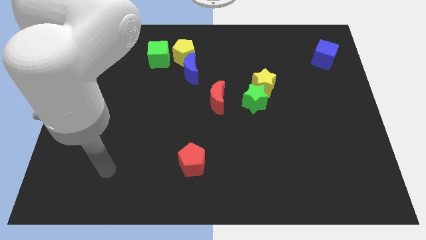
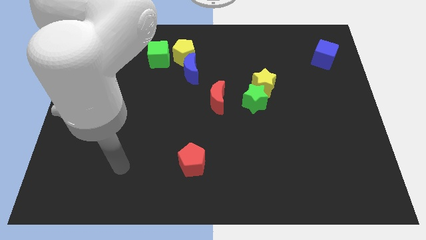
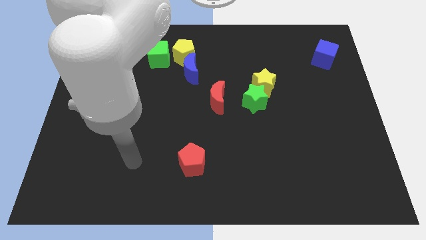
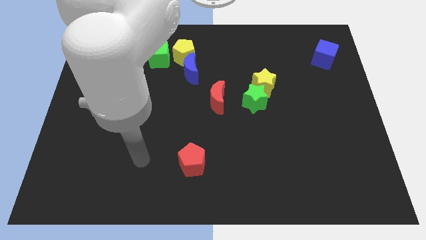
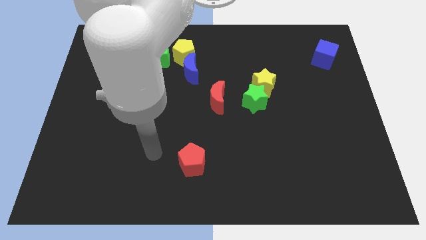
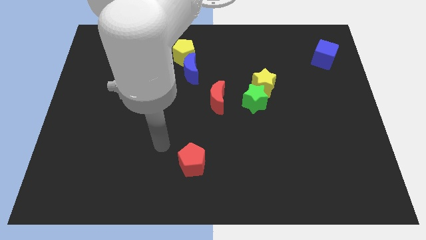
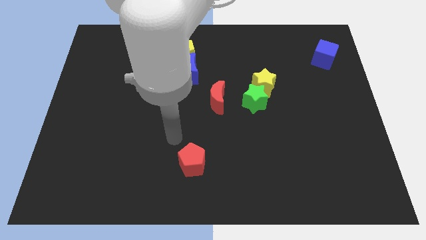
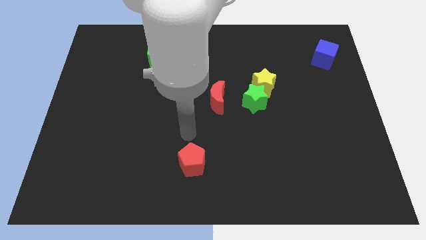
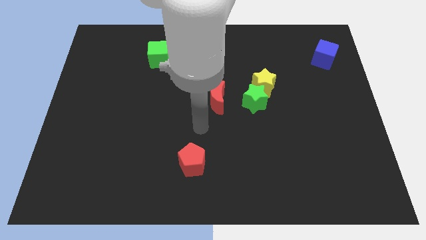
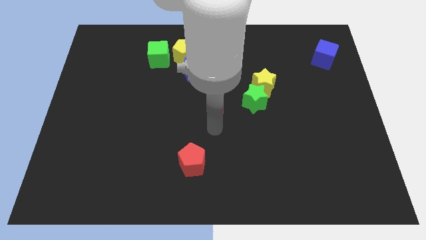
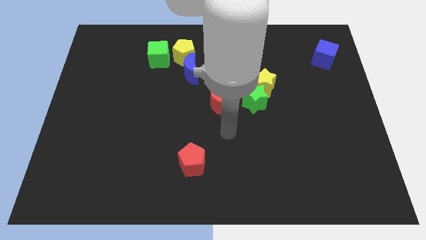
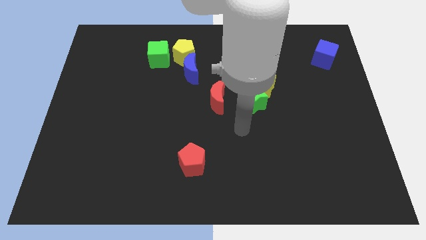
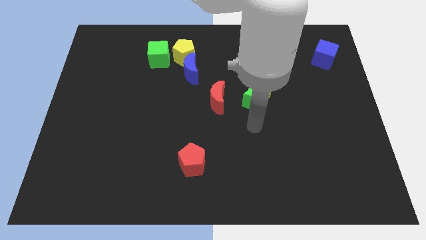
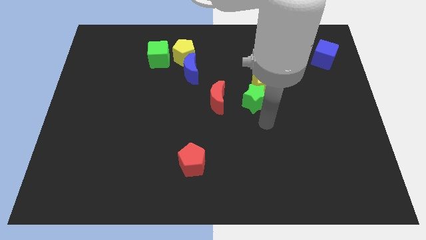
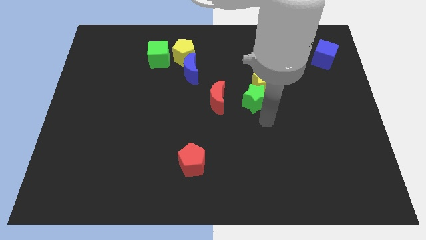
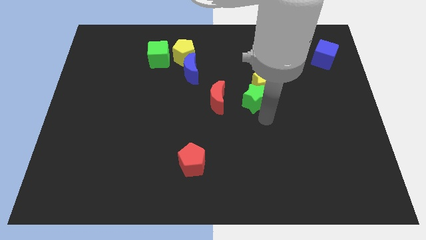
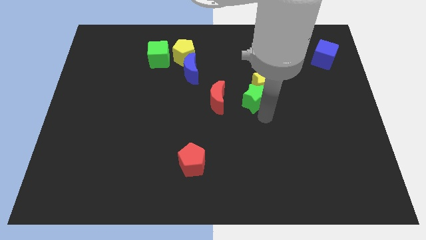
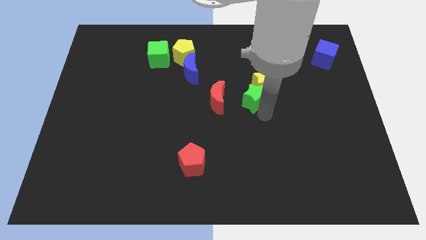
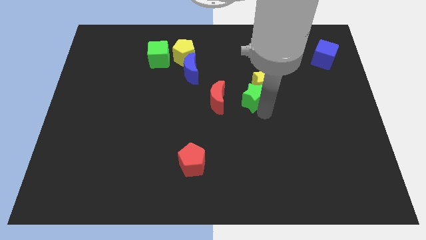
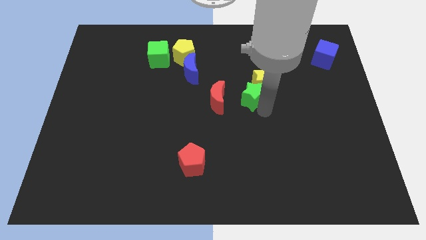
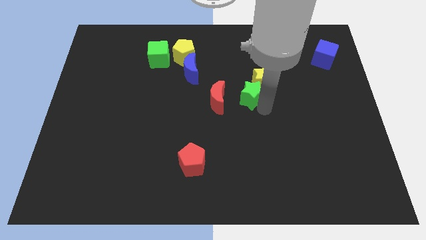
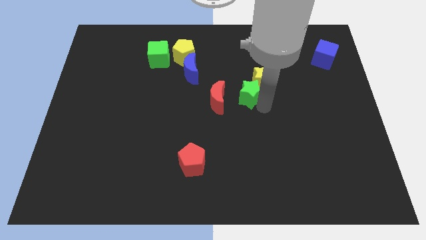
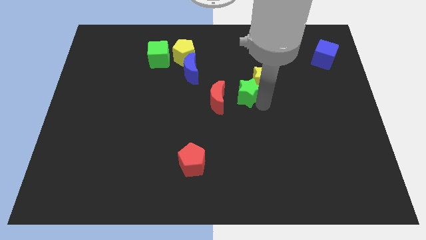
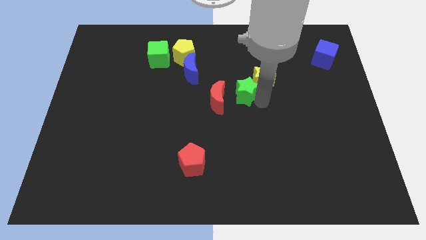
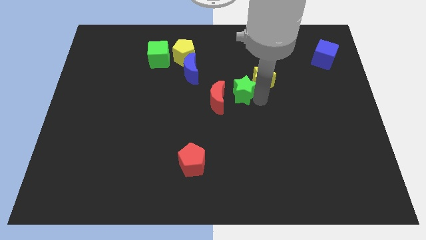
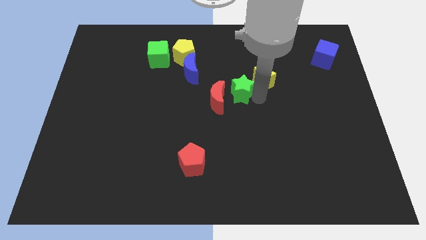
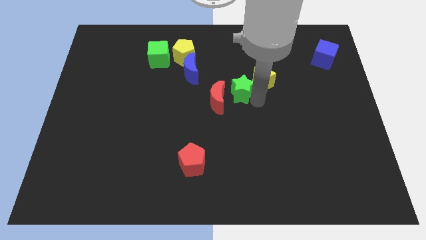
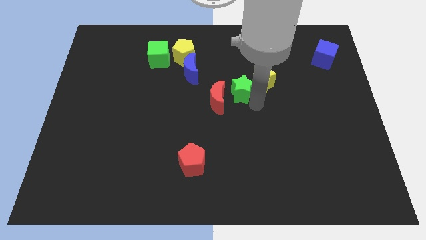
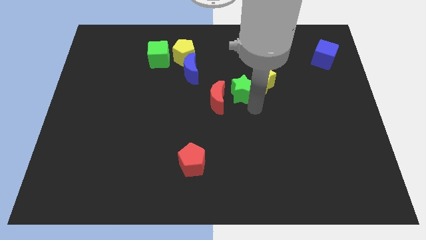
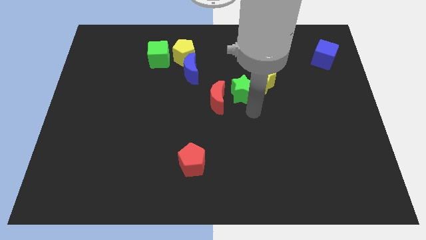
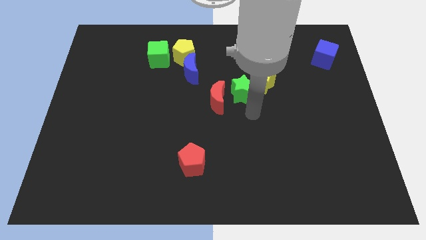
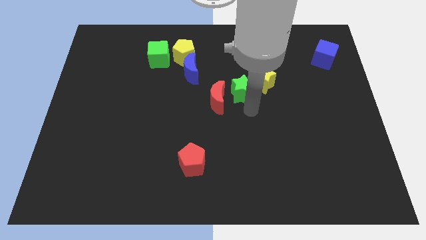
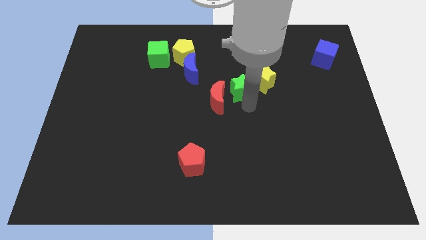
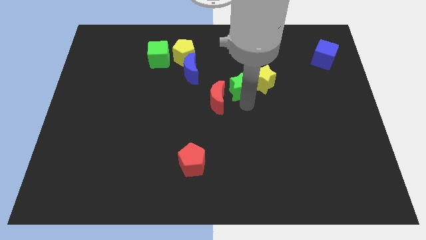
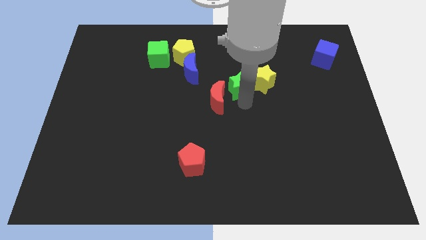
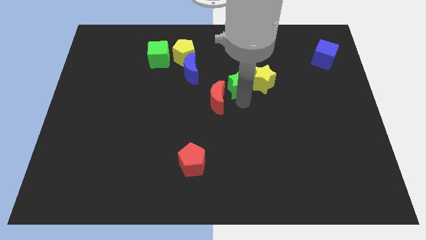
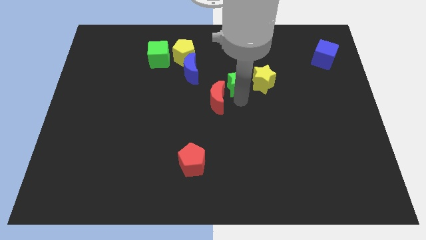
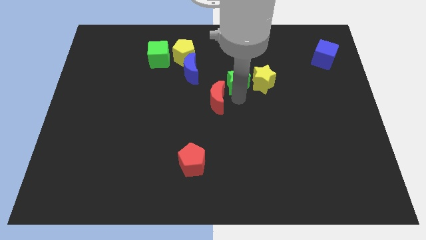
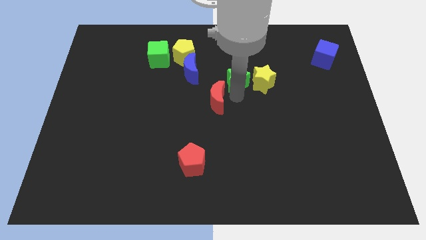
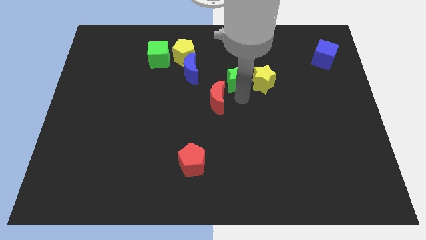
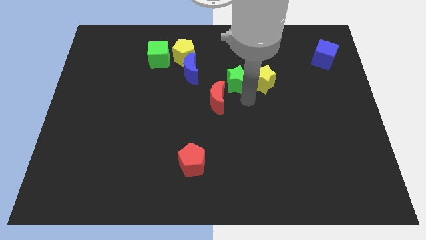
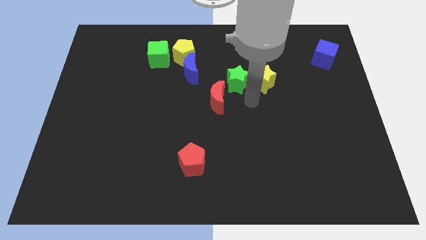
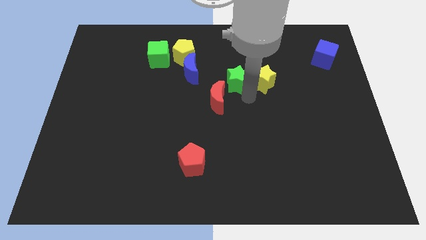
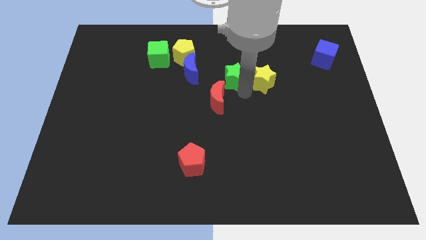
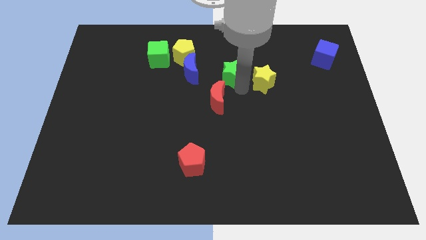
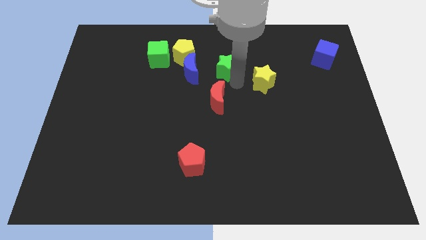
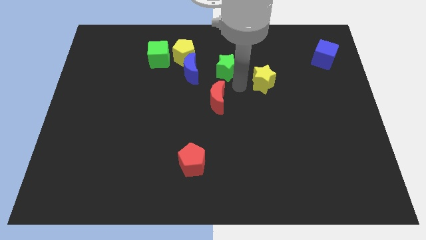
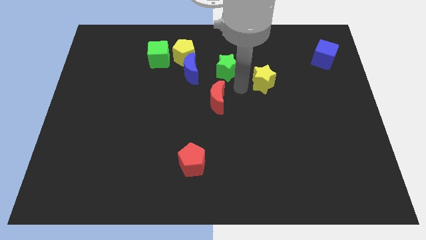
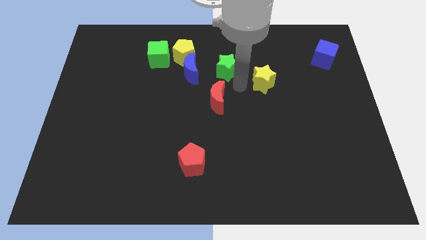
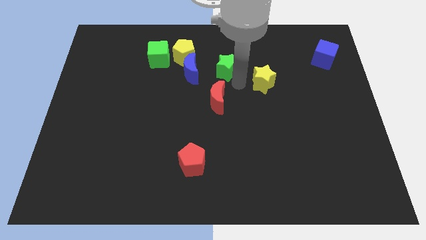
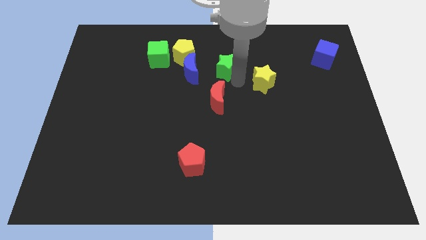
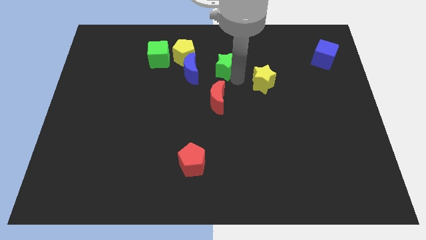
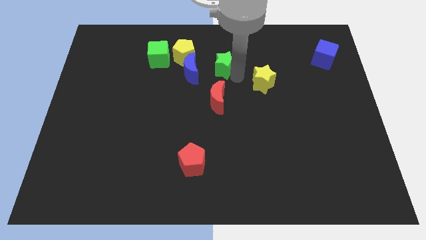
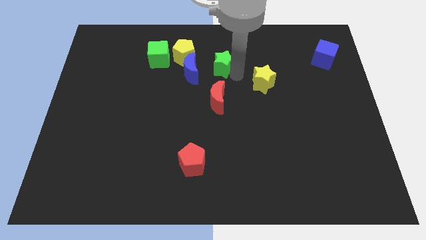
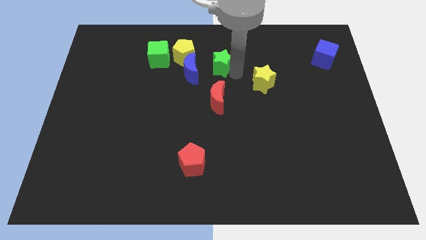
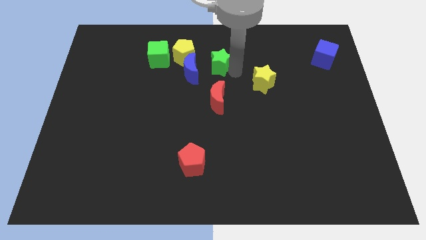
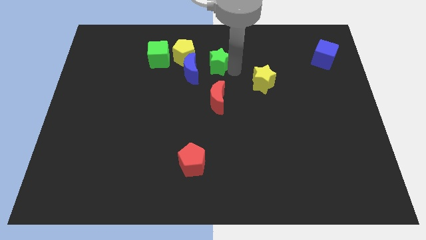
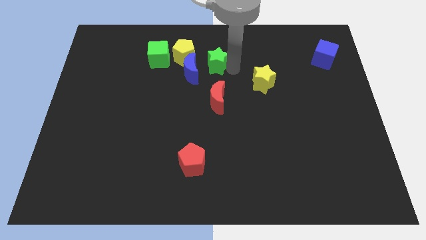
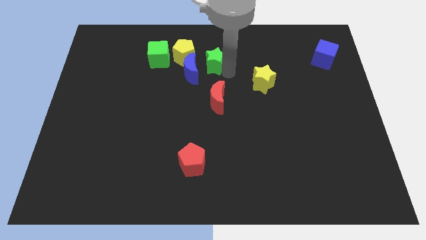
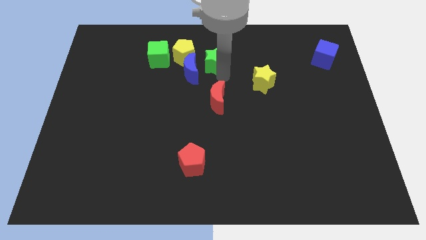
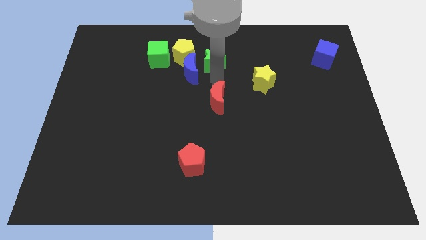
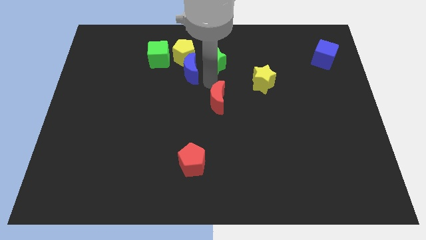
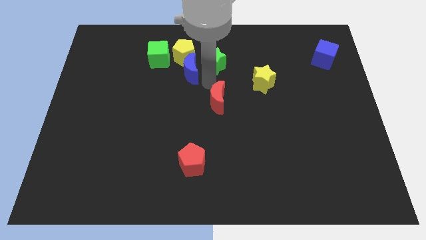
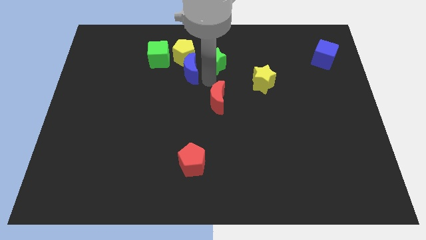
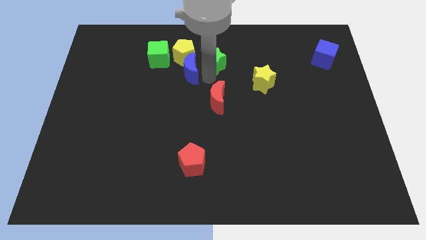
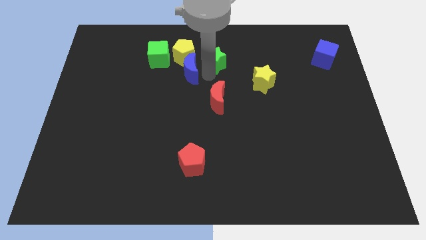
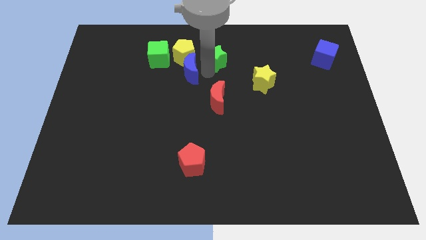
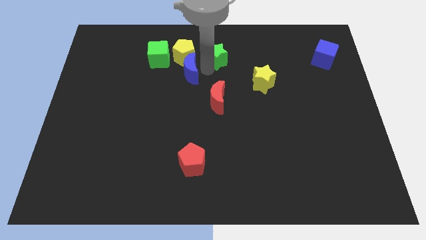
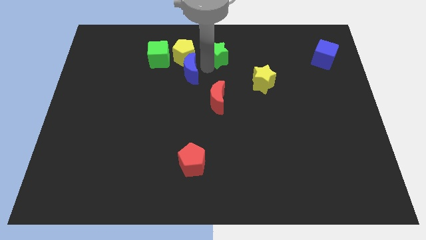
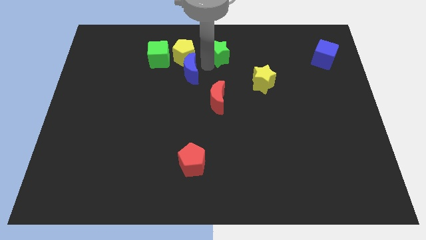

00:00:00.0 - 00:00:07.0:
move the green star to the top side
